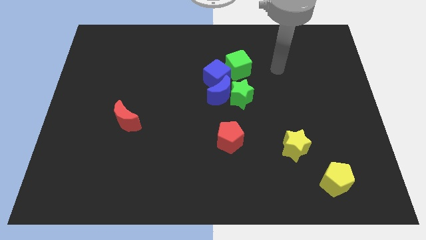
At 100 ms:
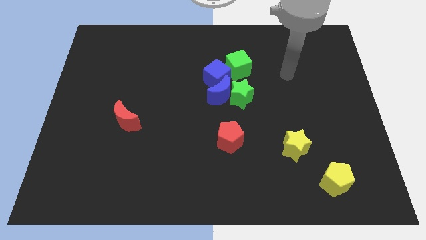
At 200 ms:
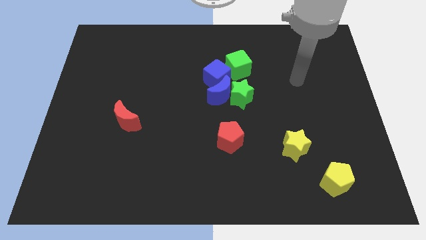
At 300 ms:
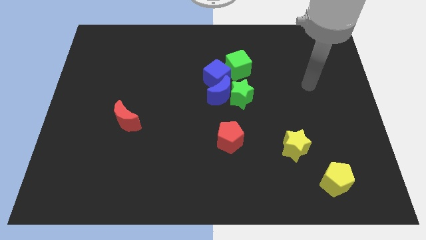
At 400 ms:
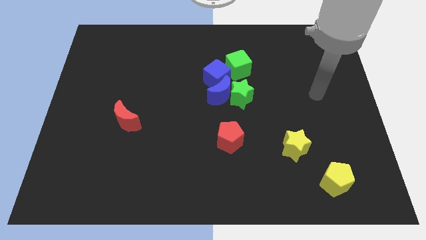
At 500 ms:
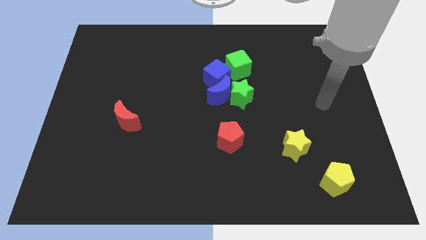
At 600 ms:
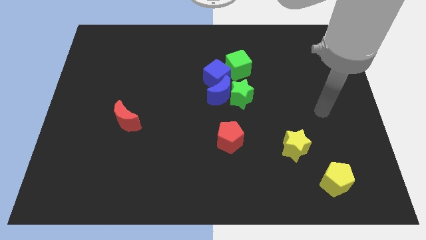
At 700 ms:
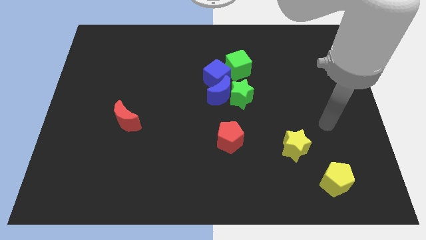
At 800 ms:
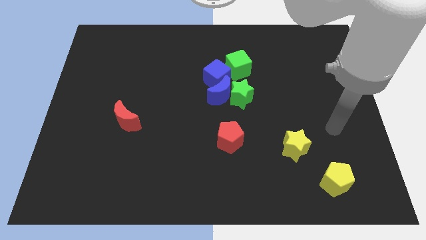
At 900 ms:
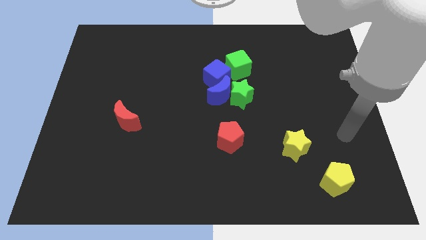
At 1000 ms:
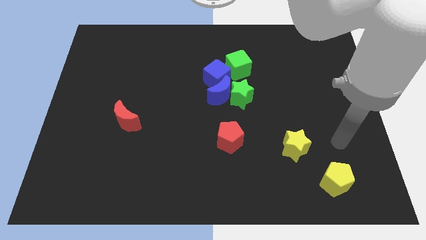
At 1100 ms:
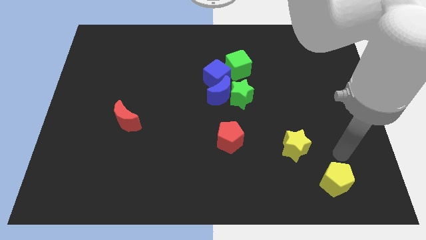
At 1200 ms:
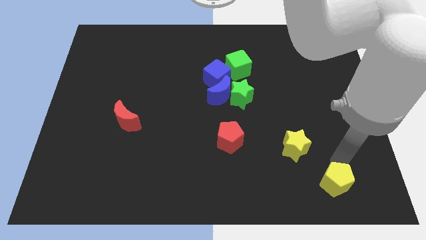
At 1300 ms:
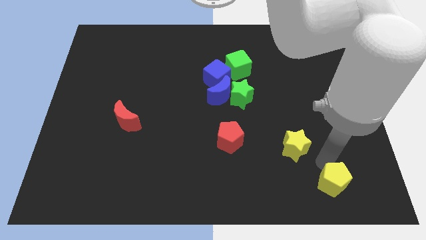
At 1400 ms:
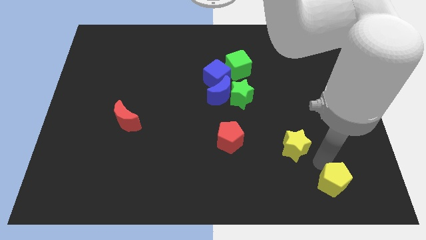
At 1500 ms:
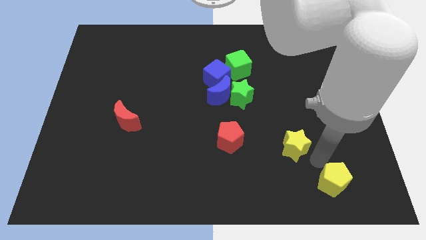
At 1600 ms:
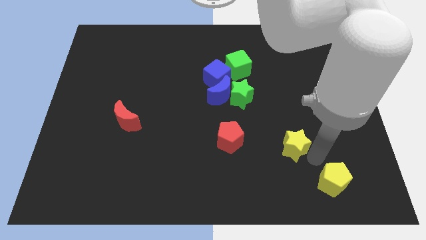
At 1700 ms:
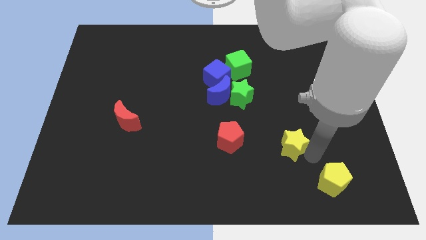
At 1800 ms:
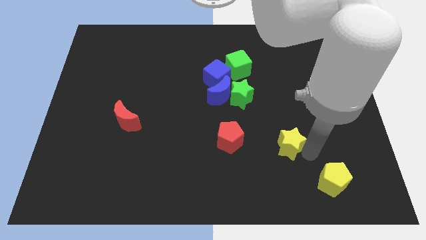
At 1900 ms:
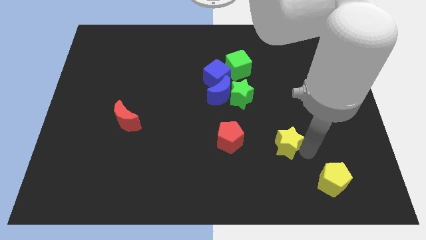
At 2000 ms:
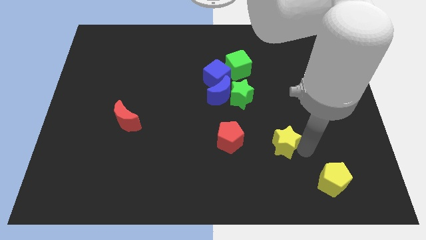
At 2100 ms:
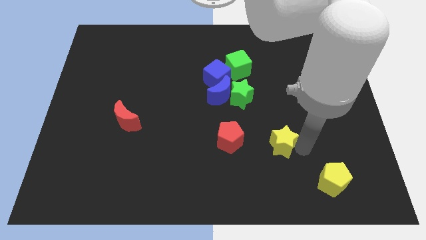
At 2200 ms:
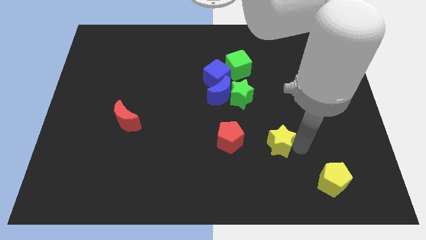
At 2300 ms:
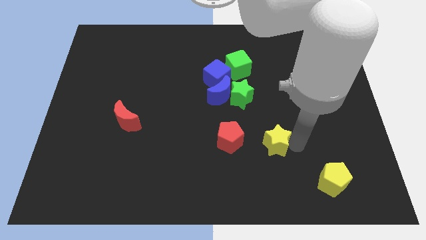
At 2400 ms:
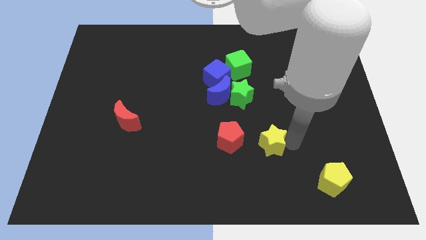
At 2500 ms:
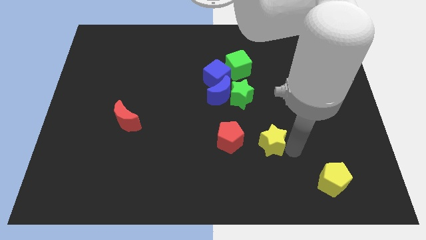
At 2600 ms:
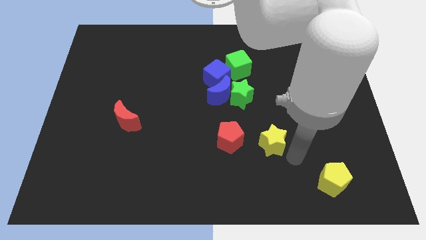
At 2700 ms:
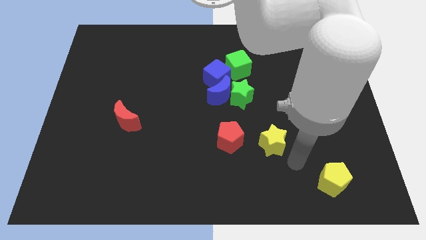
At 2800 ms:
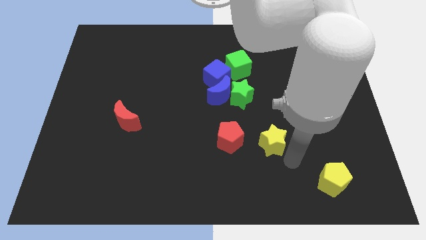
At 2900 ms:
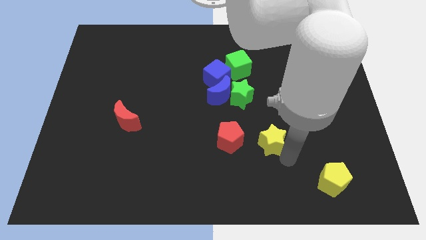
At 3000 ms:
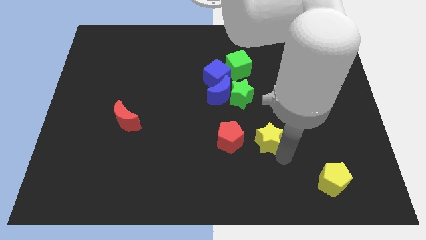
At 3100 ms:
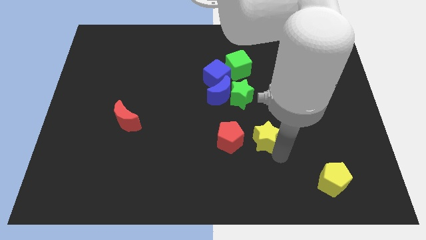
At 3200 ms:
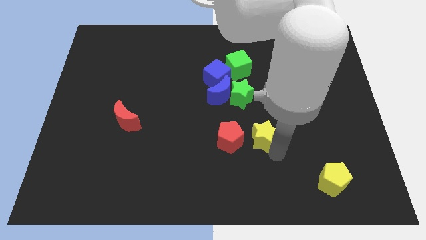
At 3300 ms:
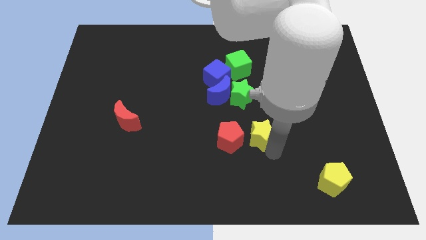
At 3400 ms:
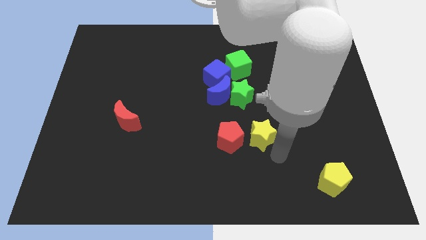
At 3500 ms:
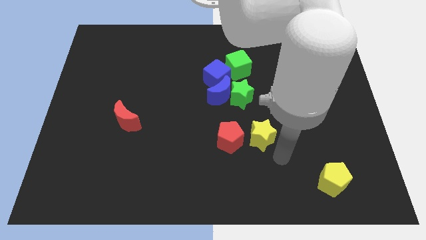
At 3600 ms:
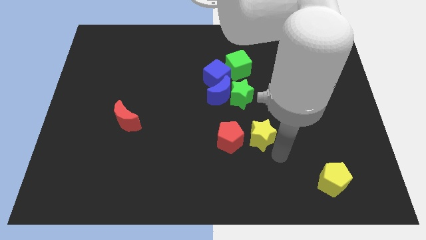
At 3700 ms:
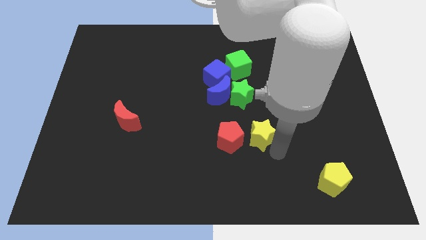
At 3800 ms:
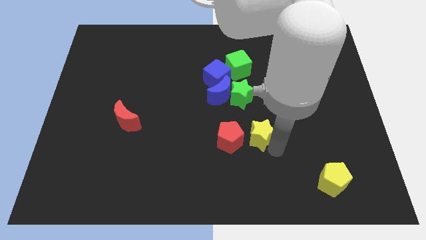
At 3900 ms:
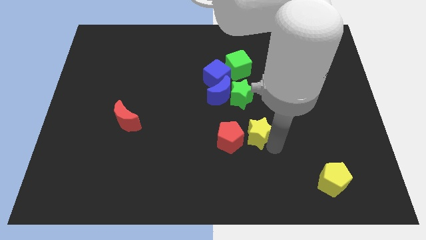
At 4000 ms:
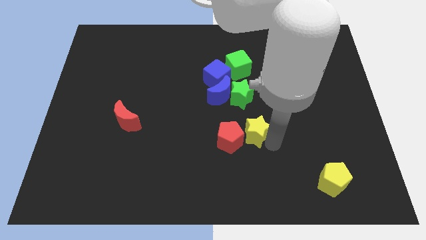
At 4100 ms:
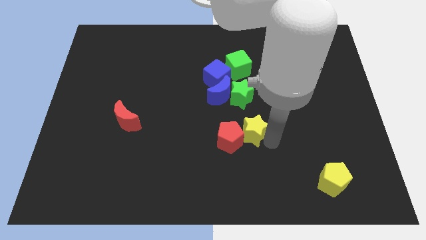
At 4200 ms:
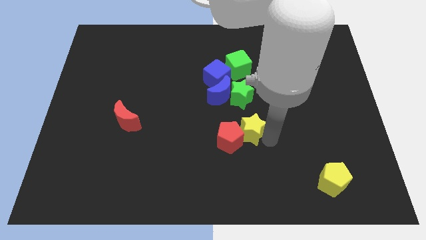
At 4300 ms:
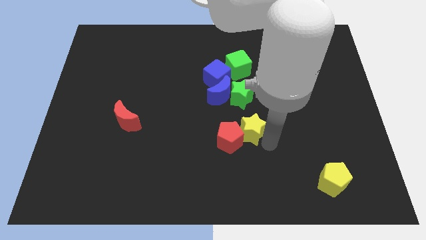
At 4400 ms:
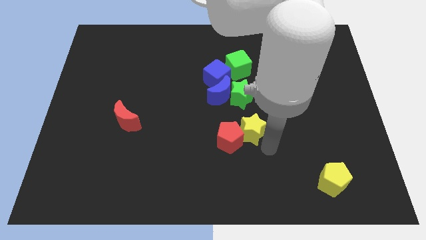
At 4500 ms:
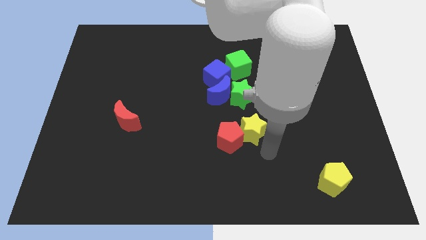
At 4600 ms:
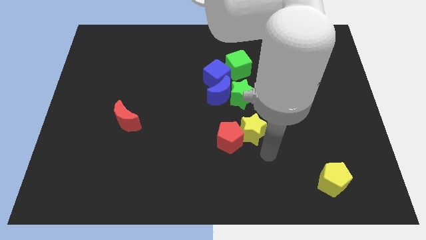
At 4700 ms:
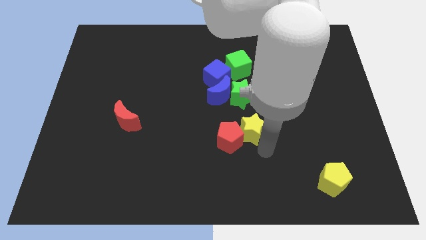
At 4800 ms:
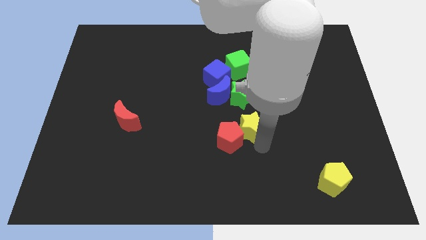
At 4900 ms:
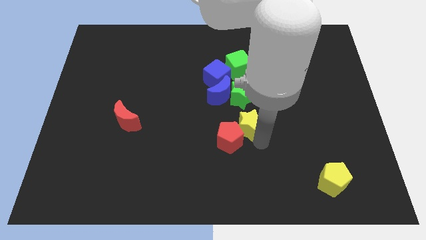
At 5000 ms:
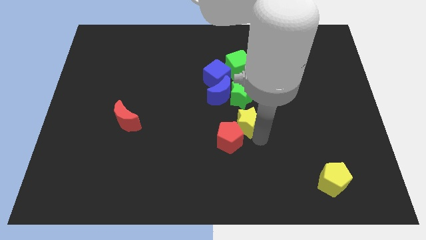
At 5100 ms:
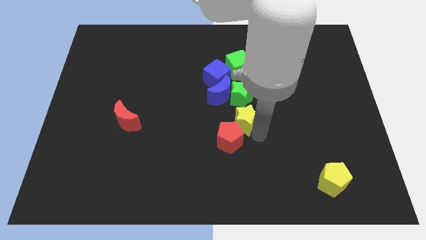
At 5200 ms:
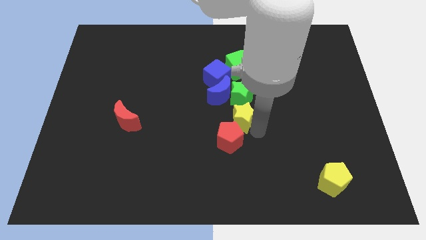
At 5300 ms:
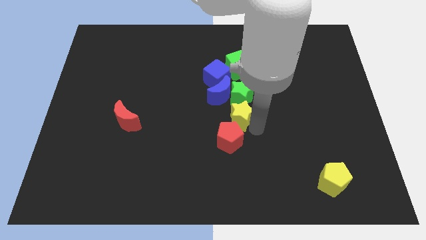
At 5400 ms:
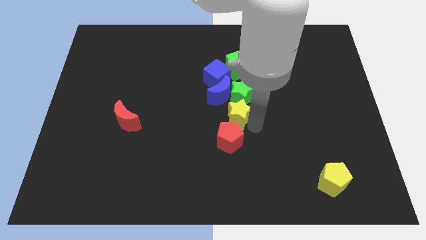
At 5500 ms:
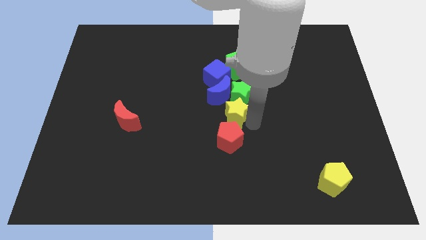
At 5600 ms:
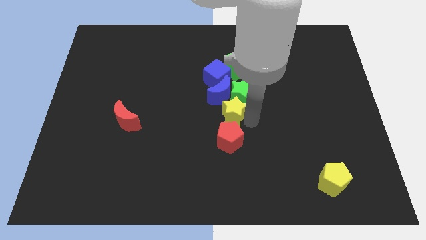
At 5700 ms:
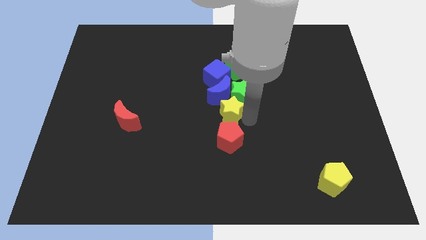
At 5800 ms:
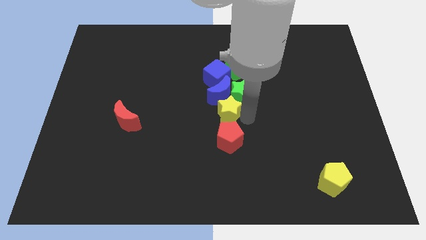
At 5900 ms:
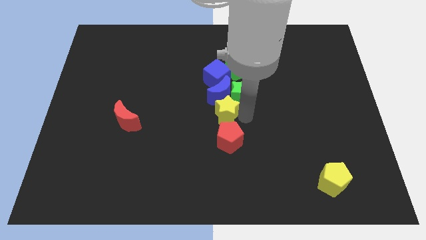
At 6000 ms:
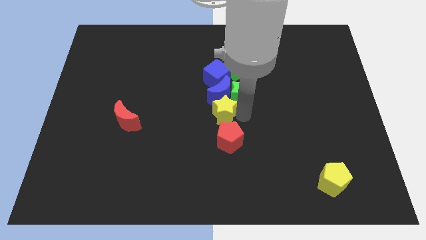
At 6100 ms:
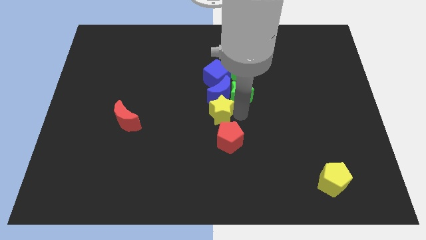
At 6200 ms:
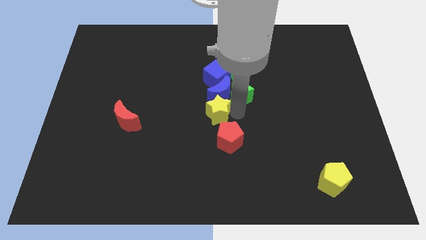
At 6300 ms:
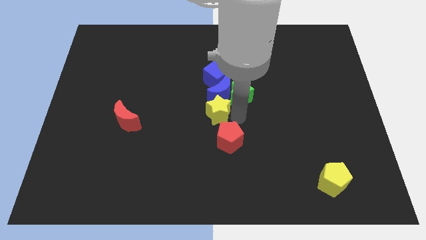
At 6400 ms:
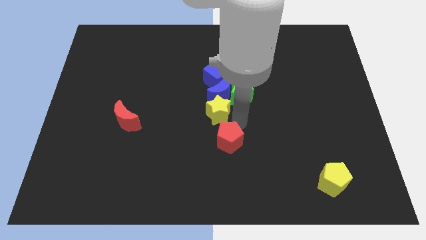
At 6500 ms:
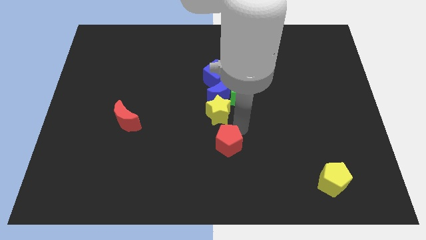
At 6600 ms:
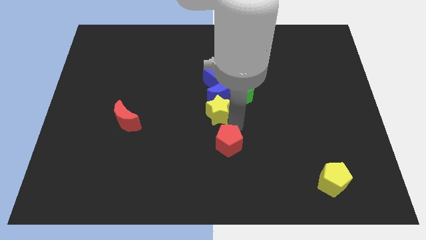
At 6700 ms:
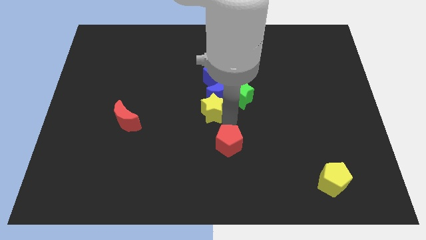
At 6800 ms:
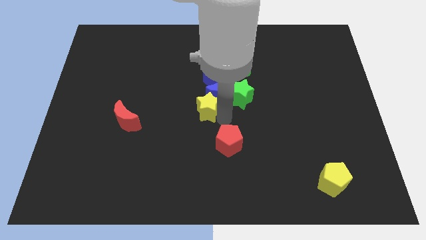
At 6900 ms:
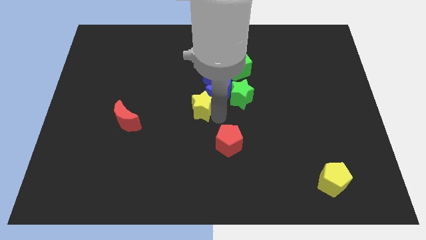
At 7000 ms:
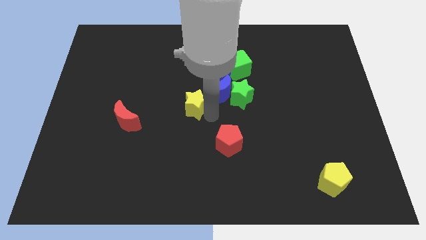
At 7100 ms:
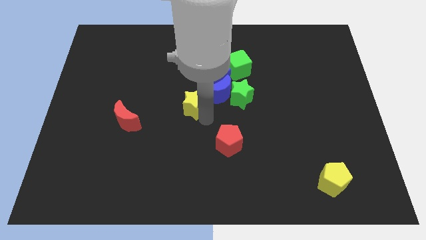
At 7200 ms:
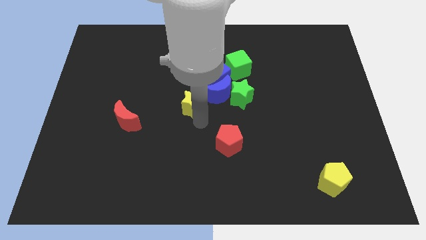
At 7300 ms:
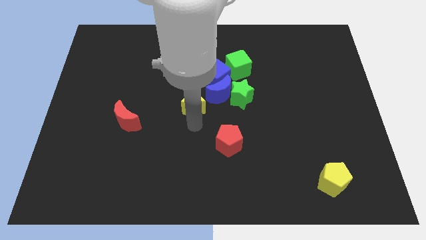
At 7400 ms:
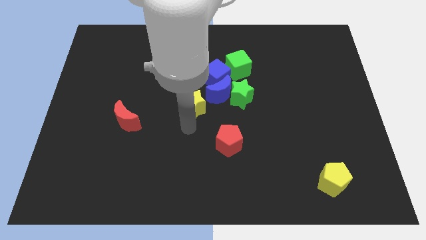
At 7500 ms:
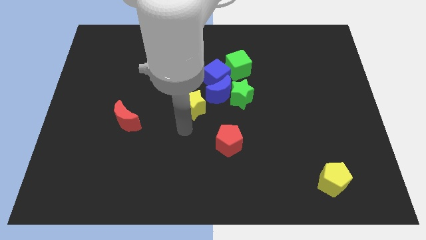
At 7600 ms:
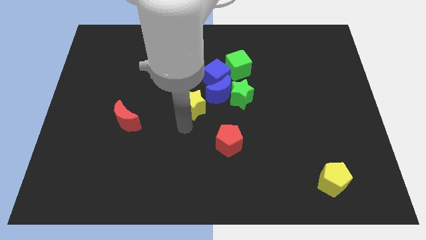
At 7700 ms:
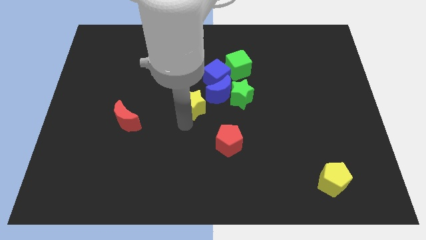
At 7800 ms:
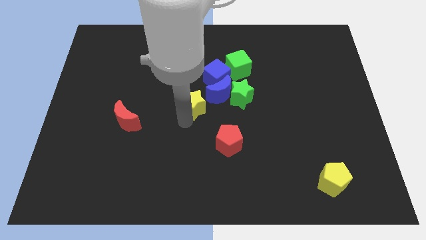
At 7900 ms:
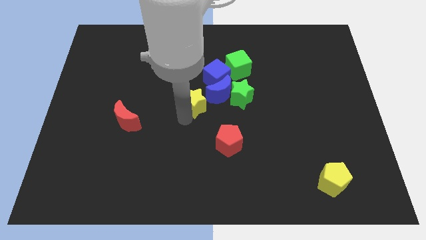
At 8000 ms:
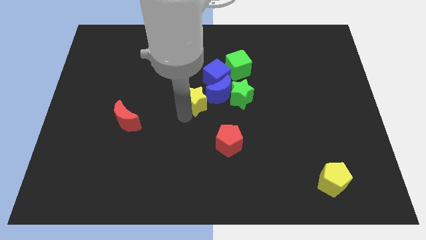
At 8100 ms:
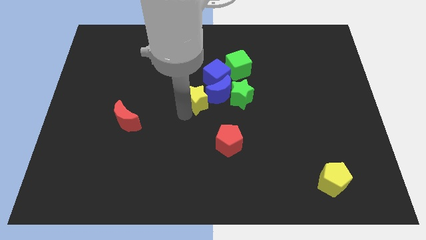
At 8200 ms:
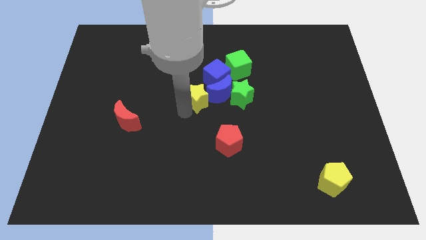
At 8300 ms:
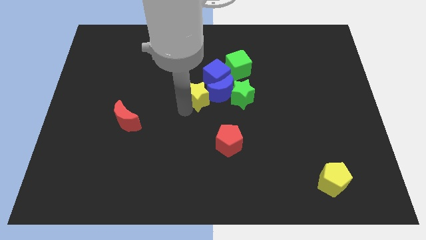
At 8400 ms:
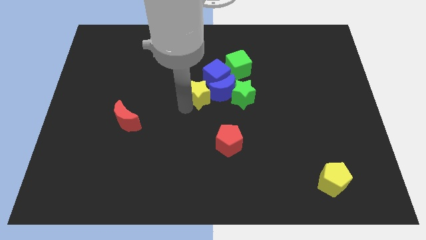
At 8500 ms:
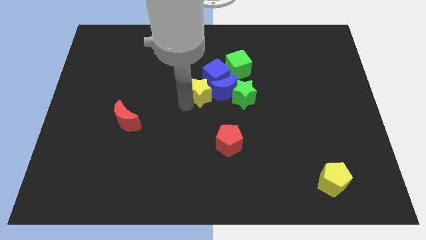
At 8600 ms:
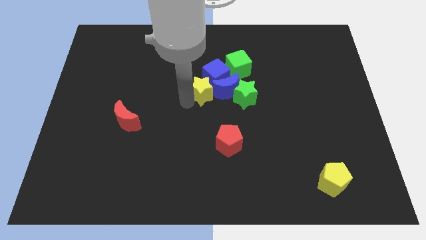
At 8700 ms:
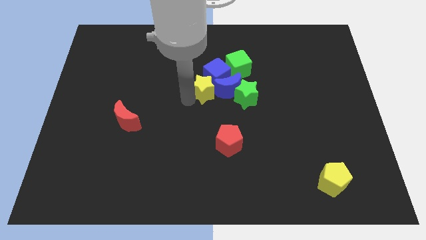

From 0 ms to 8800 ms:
slide the yellow star diagonally up and to the left of the blue moon
